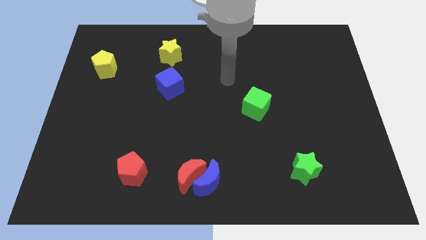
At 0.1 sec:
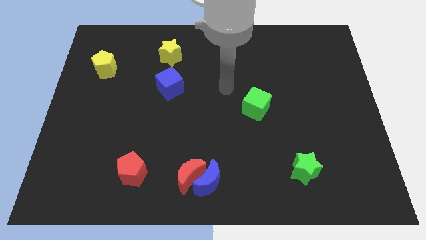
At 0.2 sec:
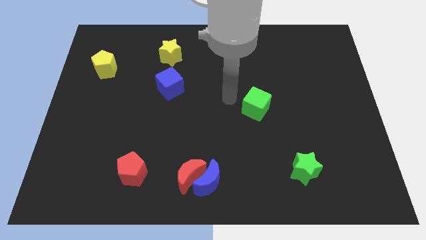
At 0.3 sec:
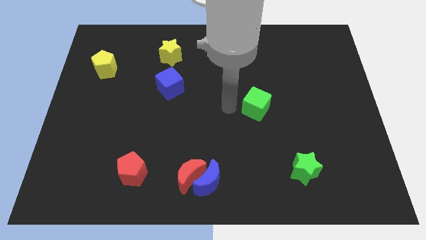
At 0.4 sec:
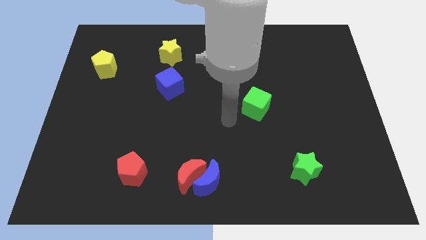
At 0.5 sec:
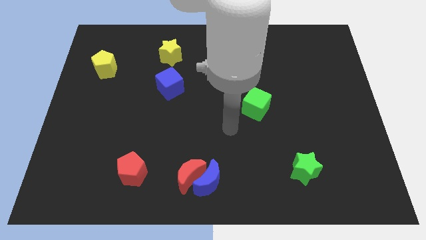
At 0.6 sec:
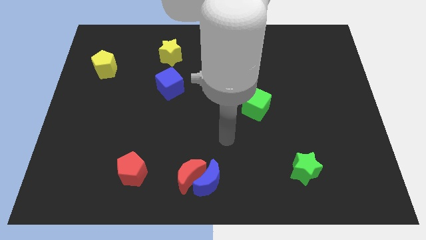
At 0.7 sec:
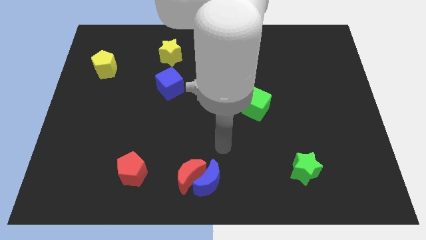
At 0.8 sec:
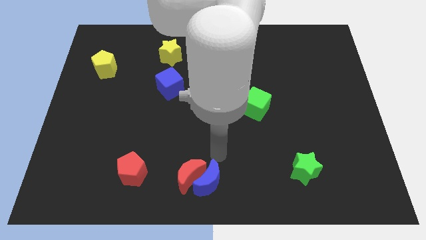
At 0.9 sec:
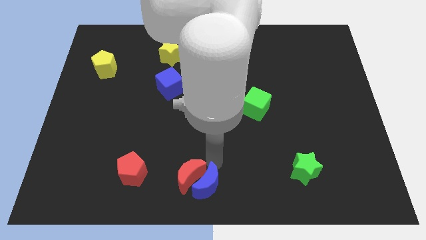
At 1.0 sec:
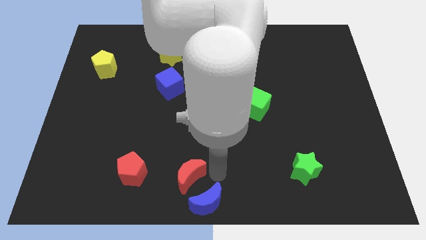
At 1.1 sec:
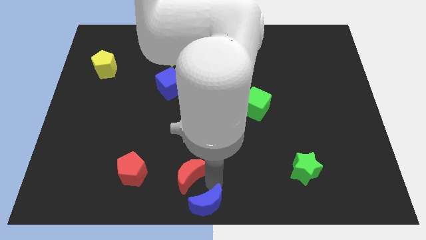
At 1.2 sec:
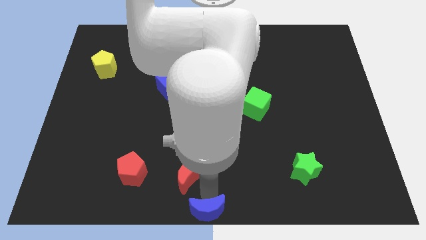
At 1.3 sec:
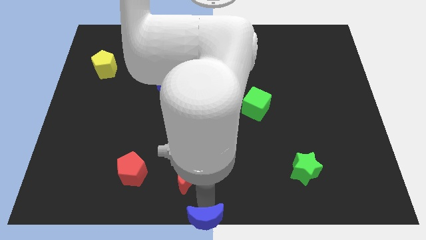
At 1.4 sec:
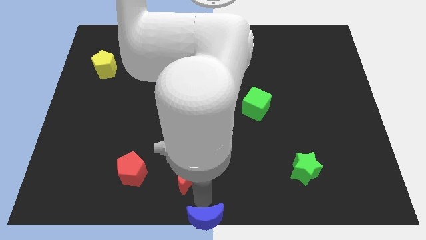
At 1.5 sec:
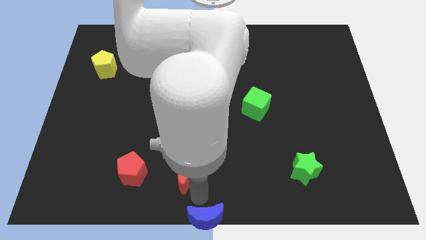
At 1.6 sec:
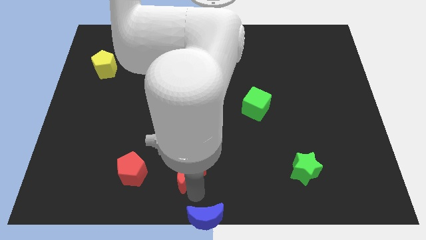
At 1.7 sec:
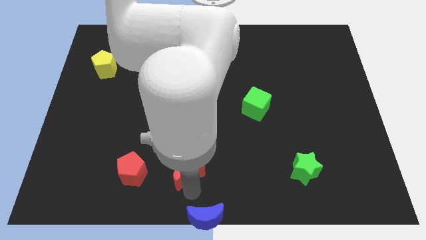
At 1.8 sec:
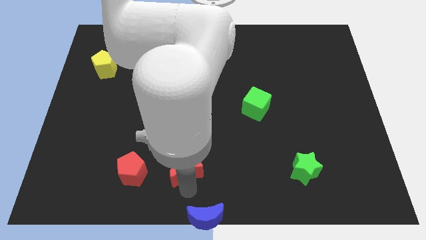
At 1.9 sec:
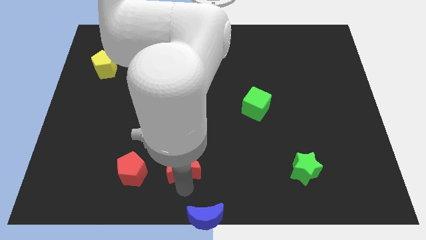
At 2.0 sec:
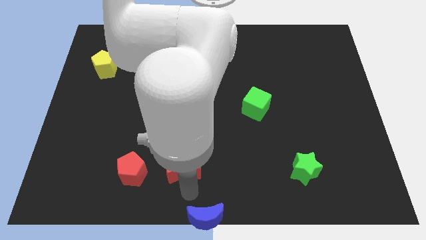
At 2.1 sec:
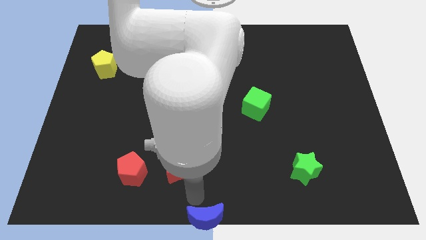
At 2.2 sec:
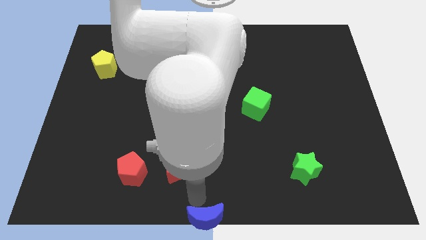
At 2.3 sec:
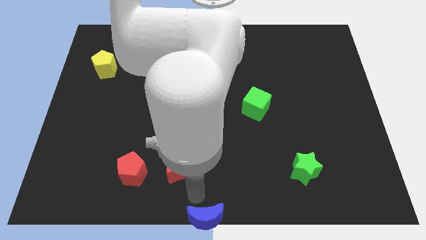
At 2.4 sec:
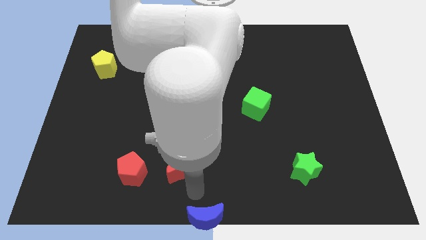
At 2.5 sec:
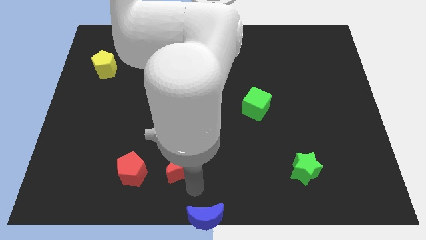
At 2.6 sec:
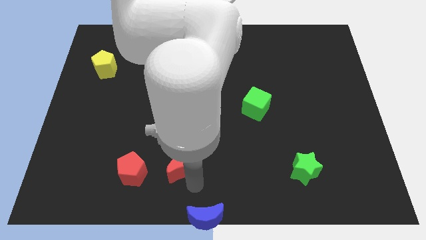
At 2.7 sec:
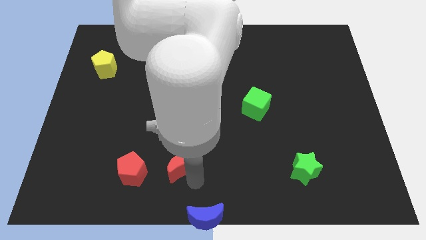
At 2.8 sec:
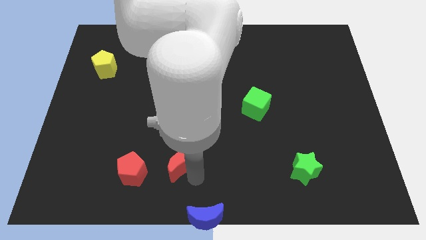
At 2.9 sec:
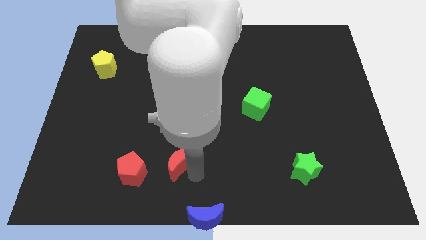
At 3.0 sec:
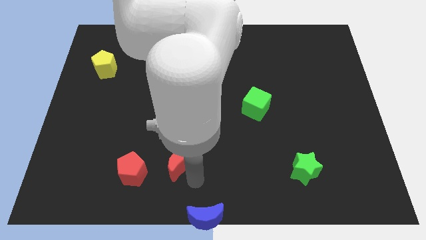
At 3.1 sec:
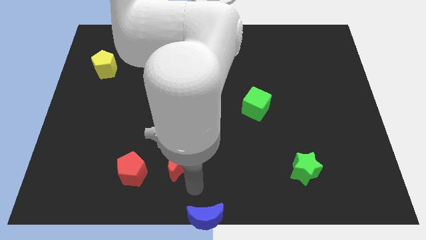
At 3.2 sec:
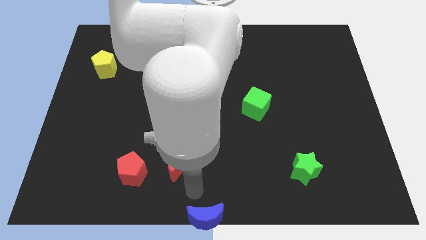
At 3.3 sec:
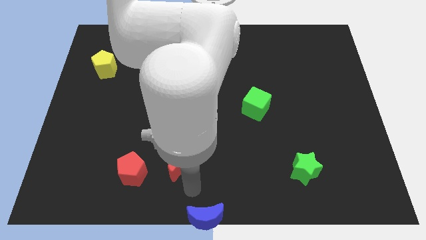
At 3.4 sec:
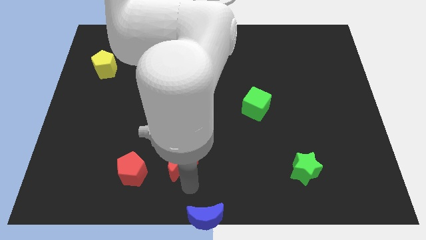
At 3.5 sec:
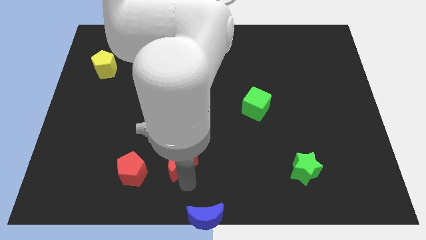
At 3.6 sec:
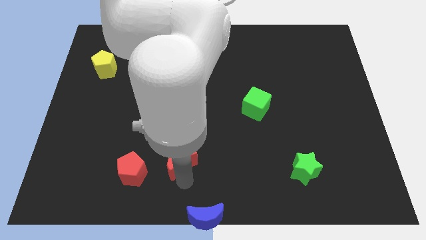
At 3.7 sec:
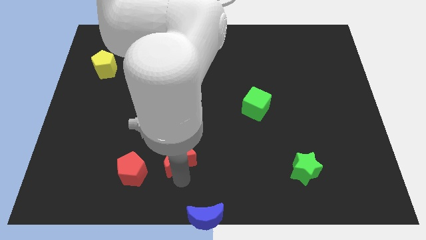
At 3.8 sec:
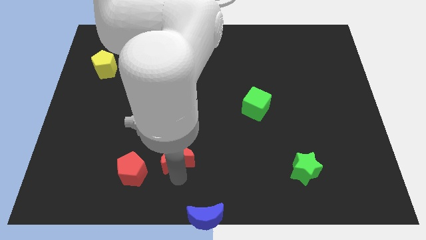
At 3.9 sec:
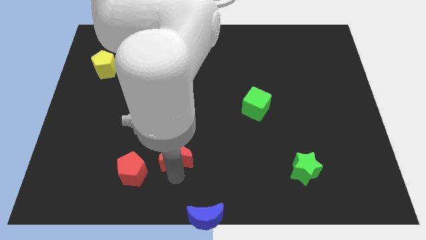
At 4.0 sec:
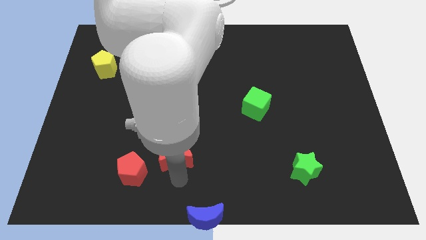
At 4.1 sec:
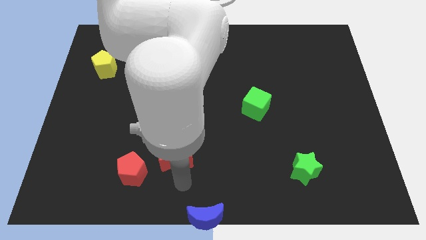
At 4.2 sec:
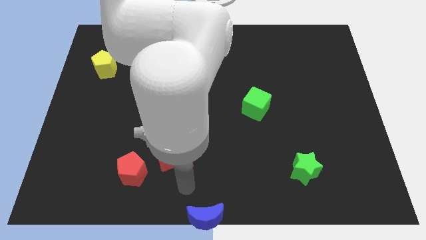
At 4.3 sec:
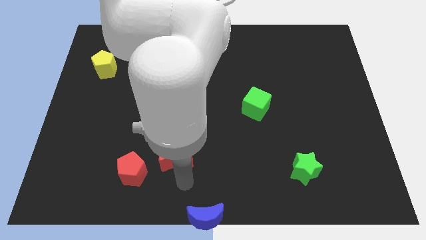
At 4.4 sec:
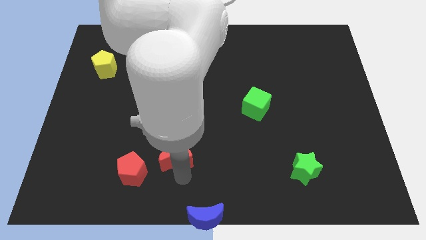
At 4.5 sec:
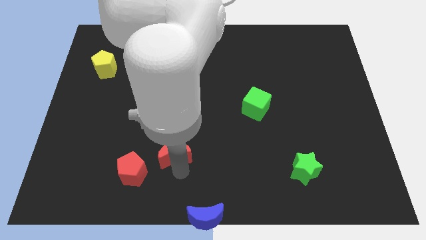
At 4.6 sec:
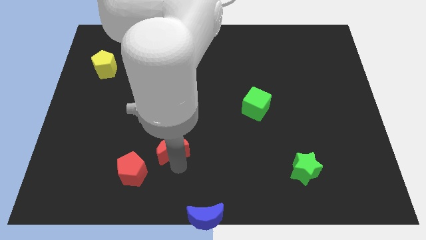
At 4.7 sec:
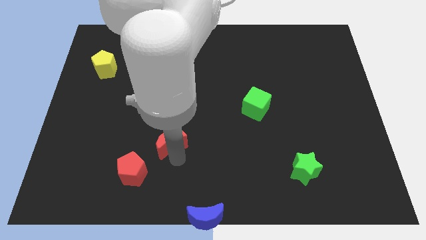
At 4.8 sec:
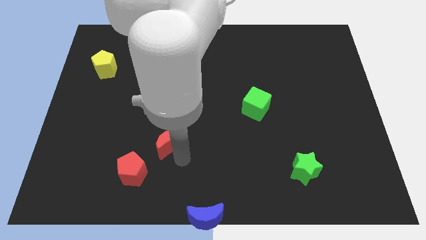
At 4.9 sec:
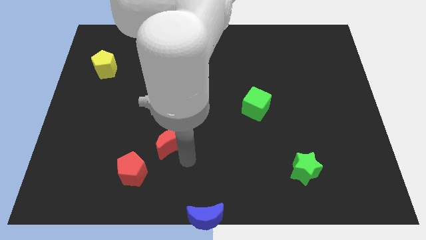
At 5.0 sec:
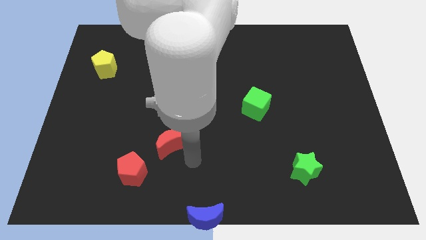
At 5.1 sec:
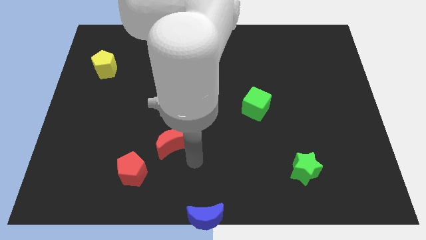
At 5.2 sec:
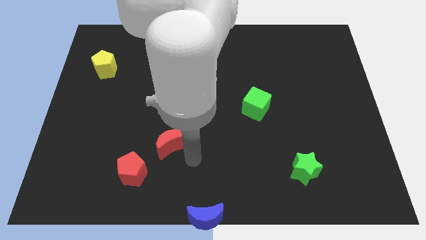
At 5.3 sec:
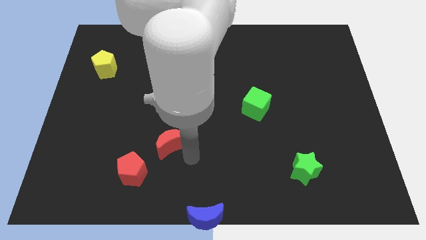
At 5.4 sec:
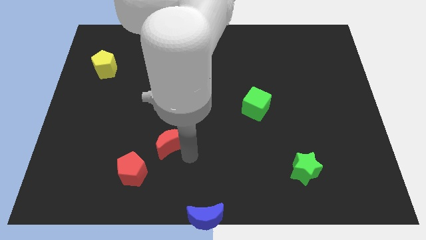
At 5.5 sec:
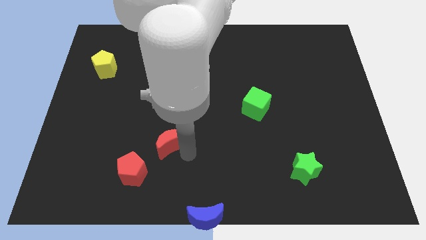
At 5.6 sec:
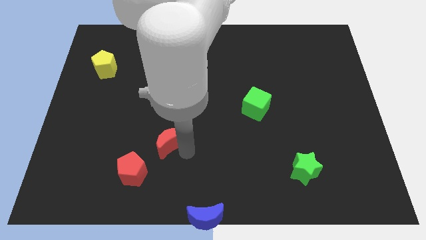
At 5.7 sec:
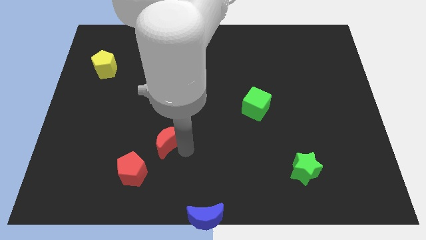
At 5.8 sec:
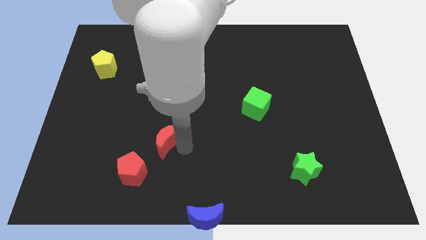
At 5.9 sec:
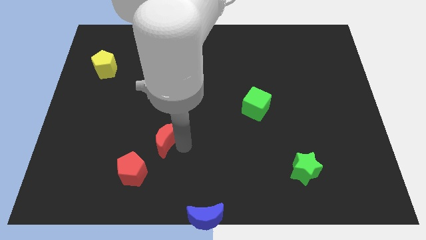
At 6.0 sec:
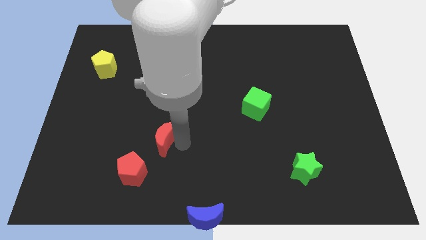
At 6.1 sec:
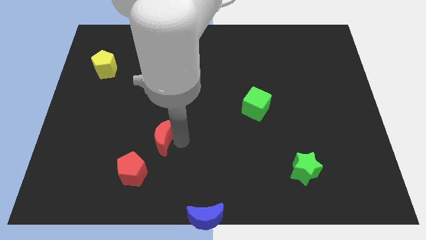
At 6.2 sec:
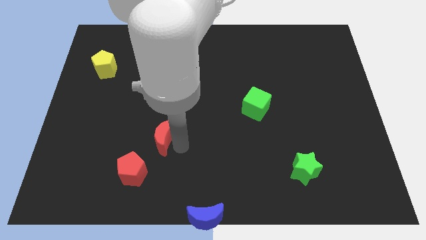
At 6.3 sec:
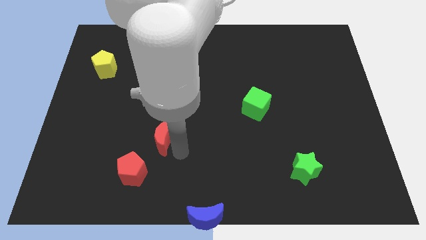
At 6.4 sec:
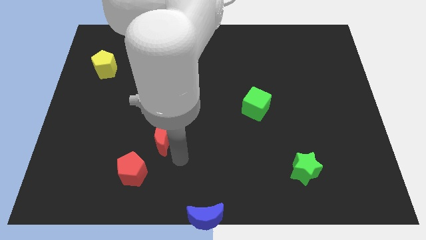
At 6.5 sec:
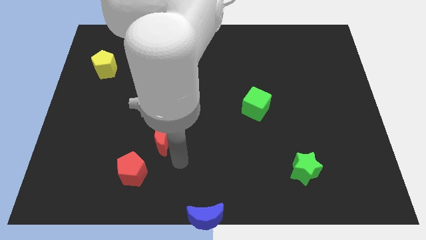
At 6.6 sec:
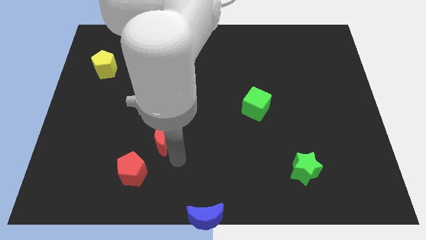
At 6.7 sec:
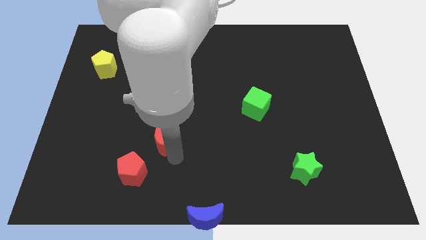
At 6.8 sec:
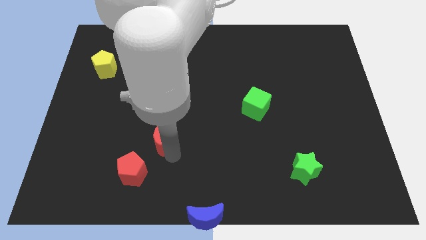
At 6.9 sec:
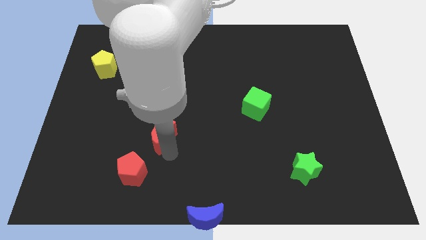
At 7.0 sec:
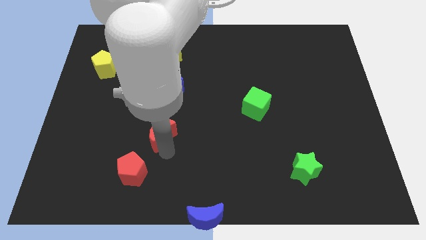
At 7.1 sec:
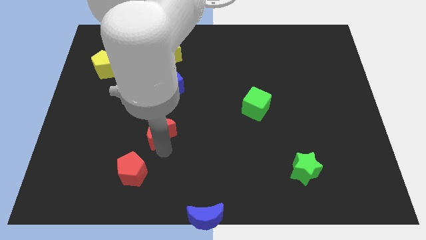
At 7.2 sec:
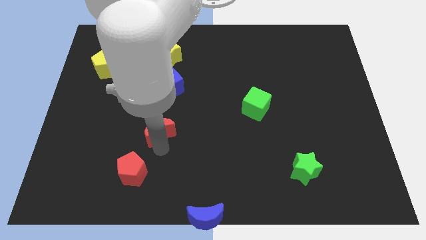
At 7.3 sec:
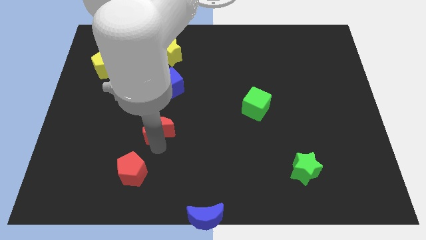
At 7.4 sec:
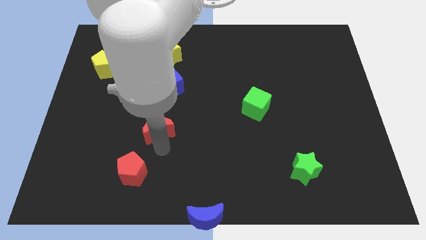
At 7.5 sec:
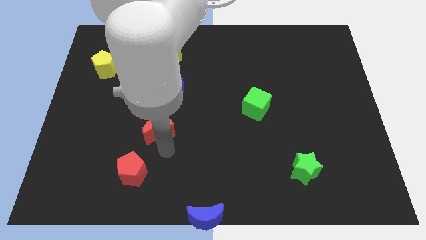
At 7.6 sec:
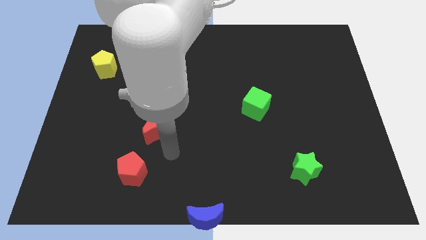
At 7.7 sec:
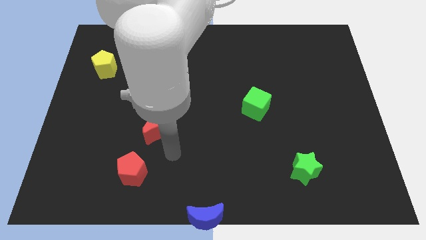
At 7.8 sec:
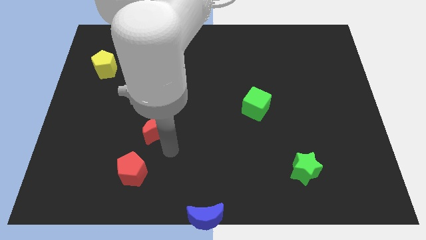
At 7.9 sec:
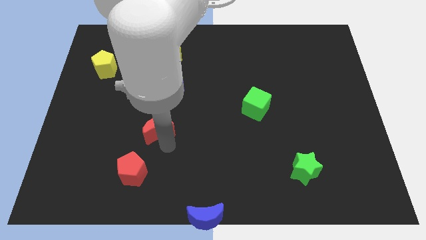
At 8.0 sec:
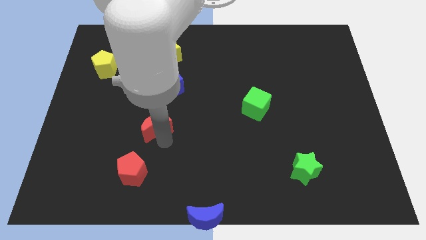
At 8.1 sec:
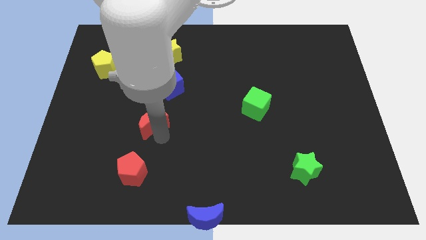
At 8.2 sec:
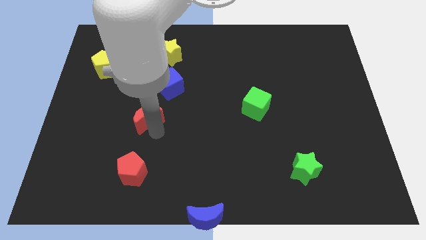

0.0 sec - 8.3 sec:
push the red moon diagonally down and to the left of the blue cube
